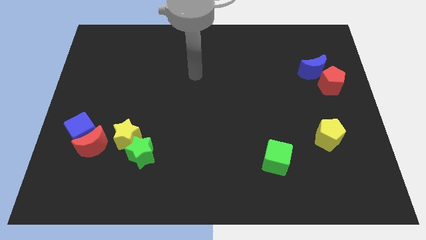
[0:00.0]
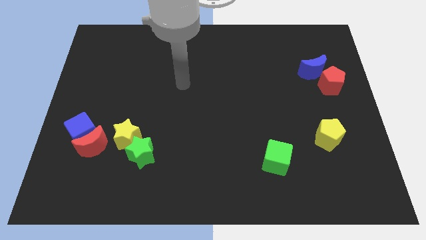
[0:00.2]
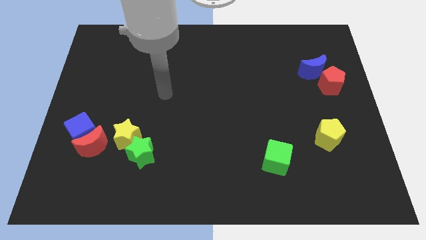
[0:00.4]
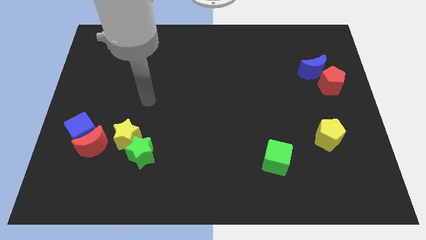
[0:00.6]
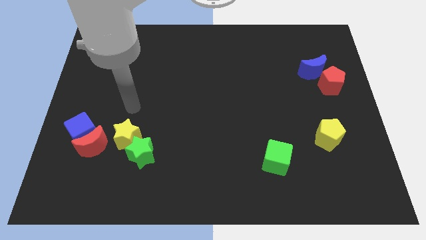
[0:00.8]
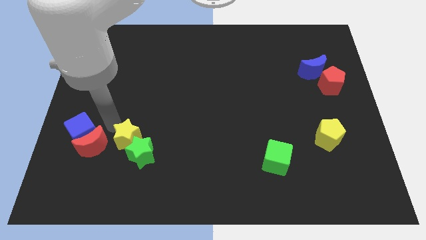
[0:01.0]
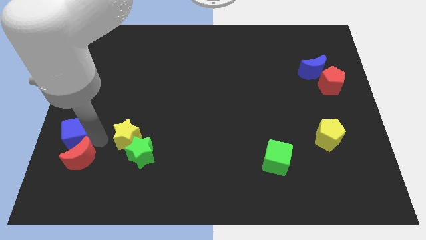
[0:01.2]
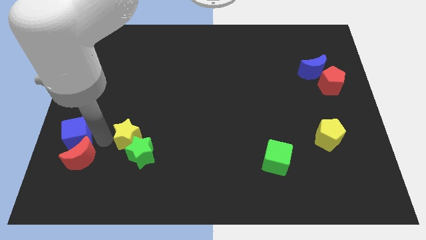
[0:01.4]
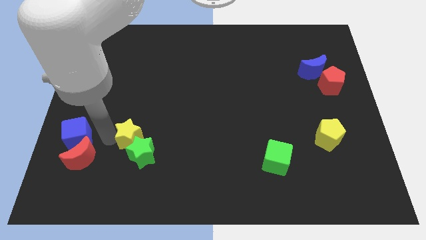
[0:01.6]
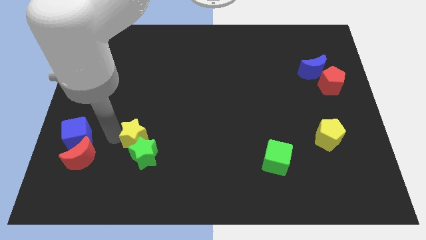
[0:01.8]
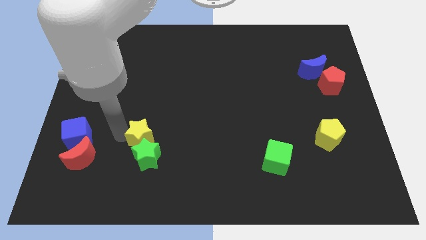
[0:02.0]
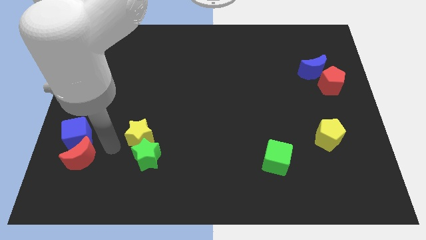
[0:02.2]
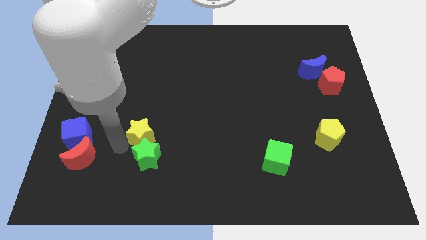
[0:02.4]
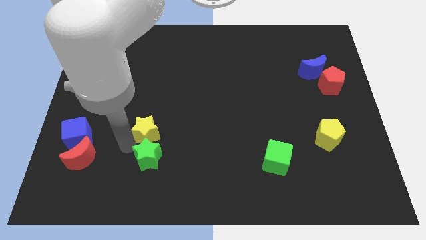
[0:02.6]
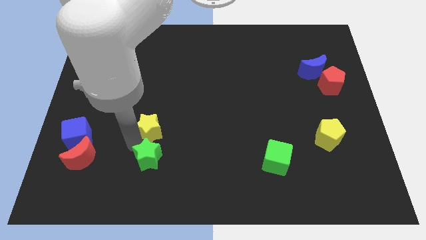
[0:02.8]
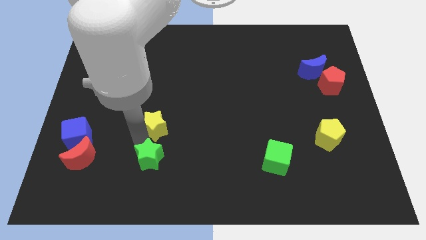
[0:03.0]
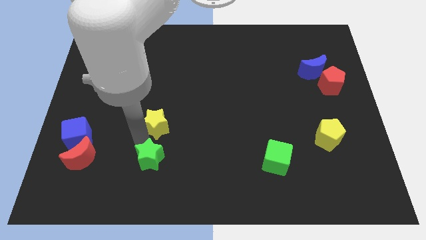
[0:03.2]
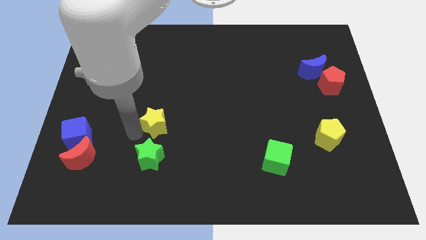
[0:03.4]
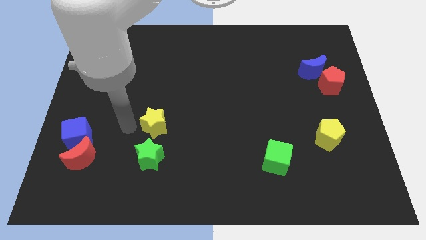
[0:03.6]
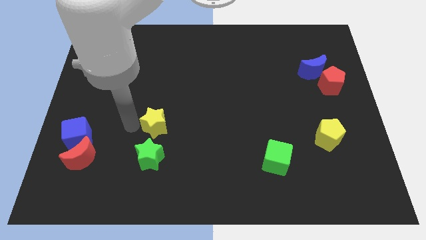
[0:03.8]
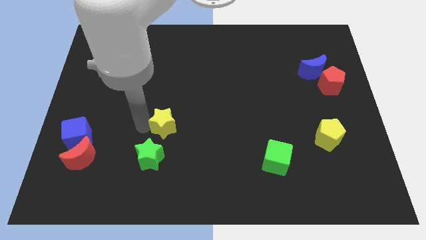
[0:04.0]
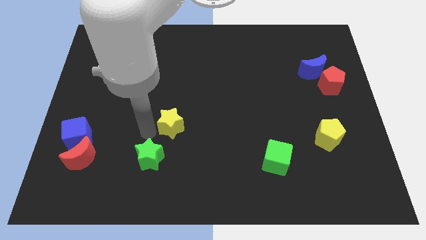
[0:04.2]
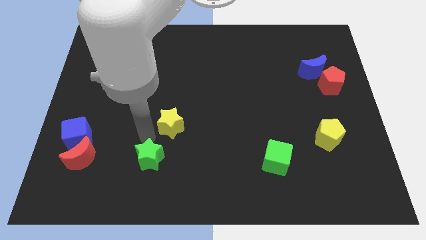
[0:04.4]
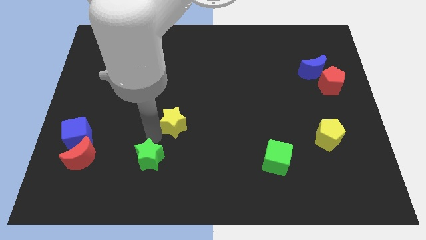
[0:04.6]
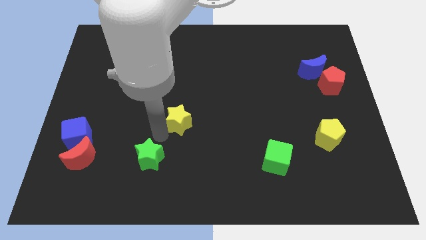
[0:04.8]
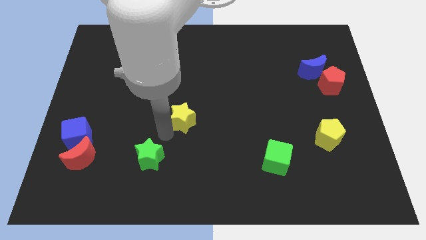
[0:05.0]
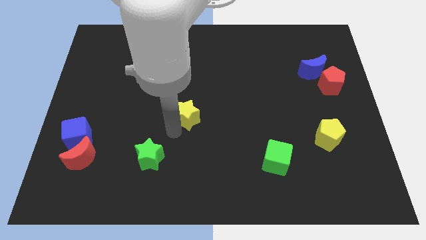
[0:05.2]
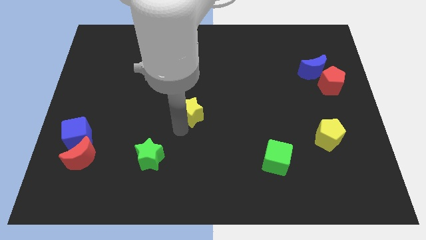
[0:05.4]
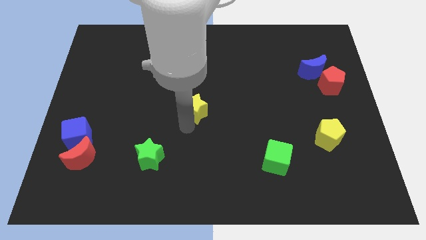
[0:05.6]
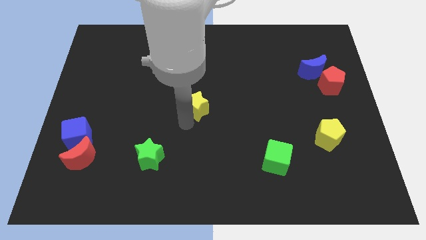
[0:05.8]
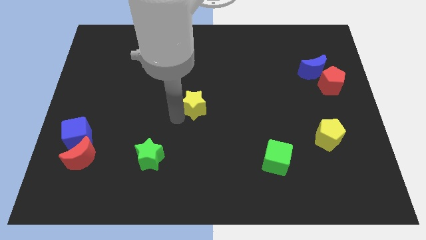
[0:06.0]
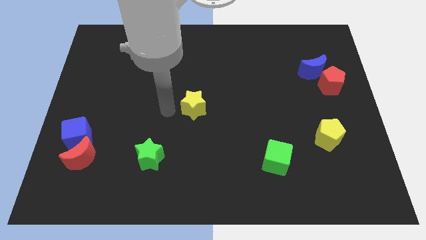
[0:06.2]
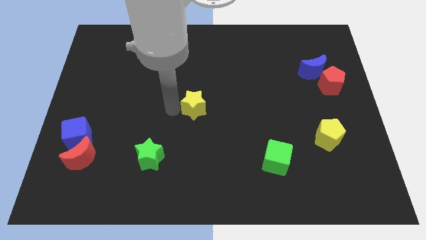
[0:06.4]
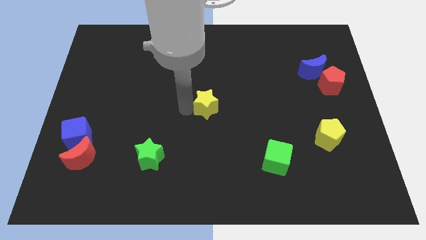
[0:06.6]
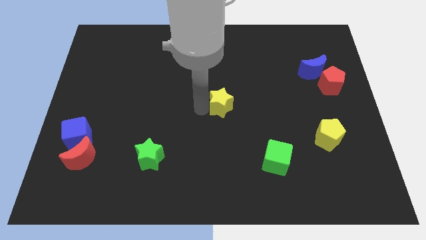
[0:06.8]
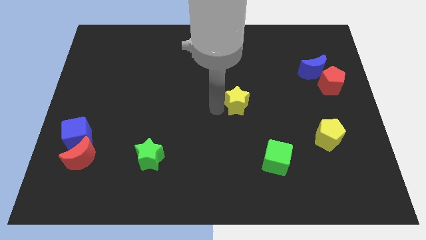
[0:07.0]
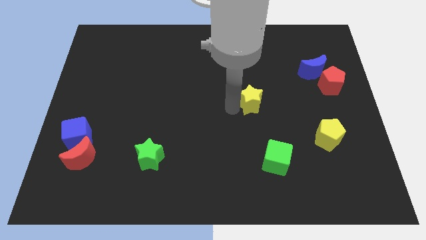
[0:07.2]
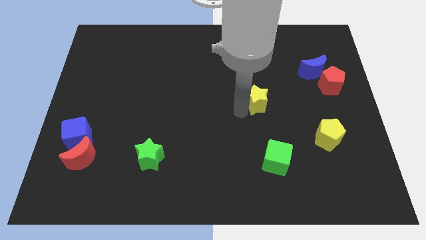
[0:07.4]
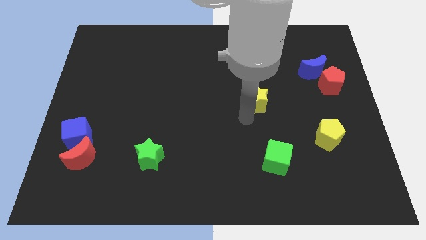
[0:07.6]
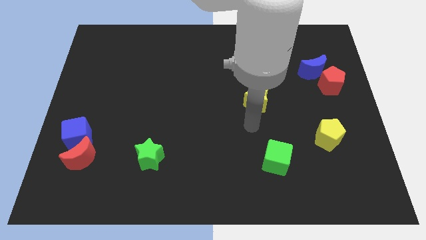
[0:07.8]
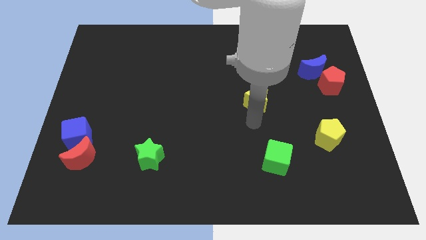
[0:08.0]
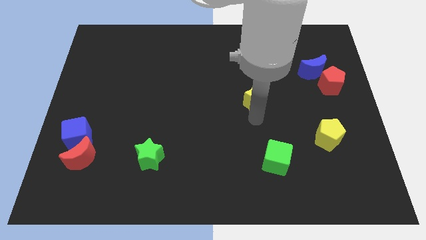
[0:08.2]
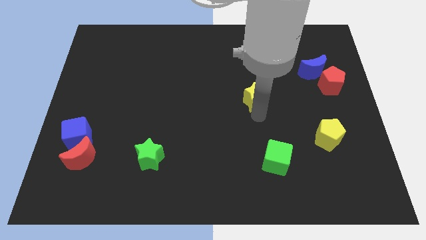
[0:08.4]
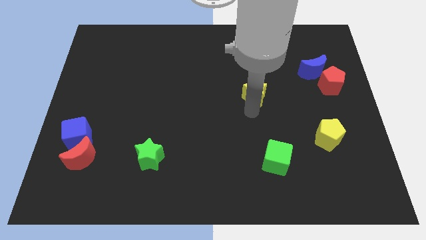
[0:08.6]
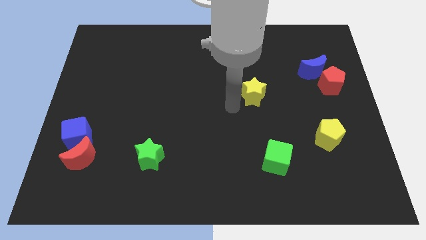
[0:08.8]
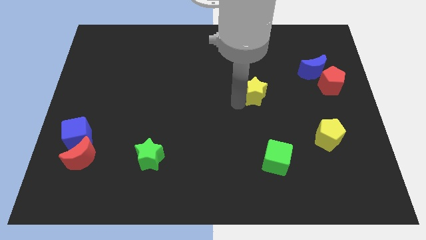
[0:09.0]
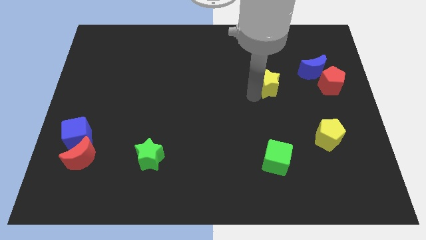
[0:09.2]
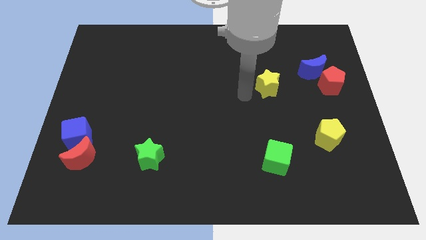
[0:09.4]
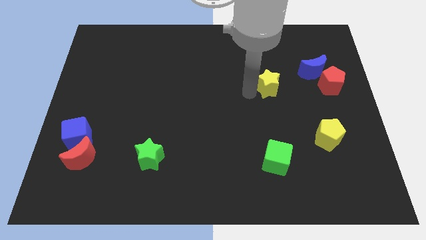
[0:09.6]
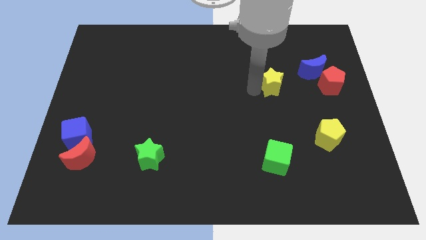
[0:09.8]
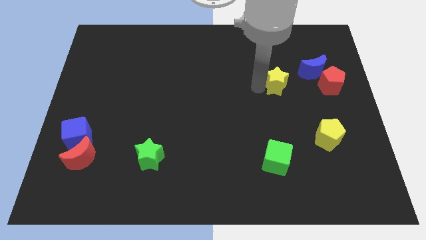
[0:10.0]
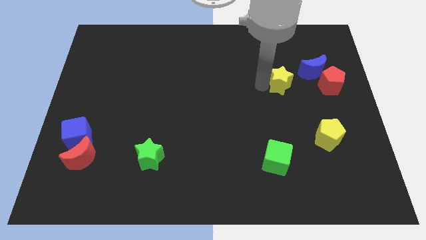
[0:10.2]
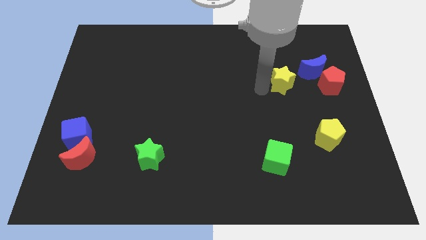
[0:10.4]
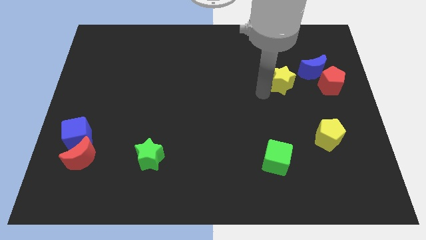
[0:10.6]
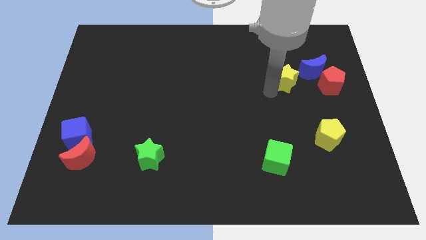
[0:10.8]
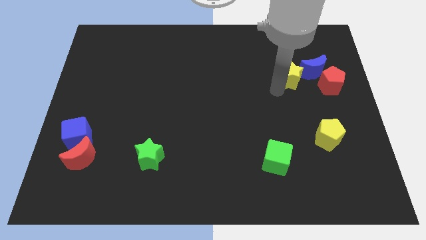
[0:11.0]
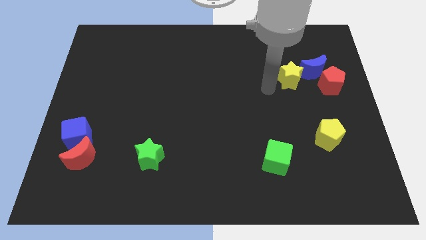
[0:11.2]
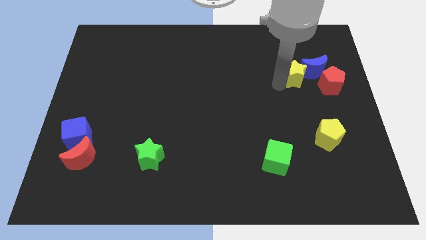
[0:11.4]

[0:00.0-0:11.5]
move the yellow star towards the blue moon

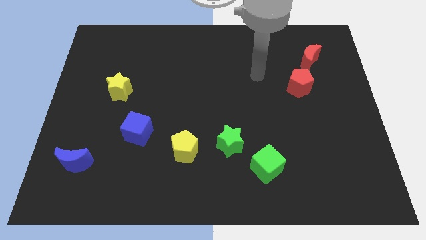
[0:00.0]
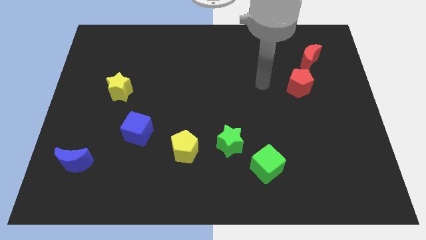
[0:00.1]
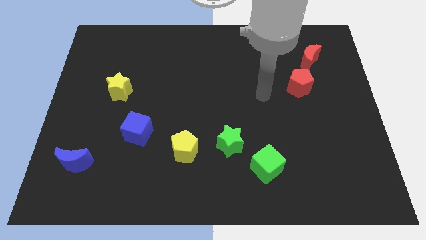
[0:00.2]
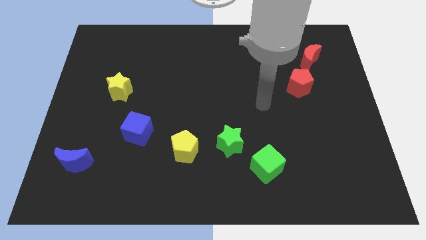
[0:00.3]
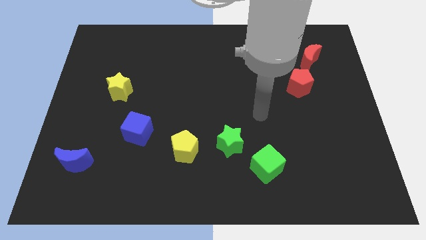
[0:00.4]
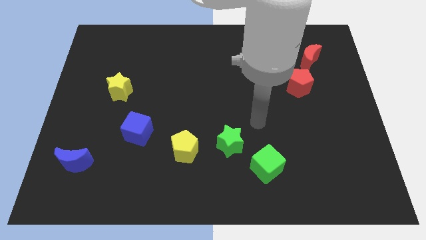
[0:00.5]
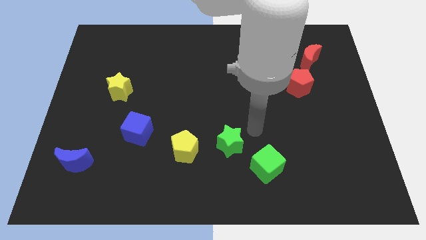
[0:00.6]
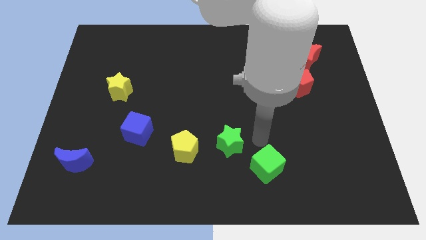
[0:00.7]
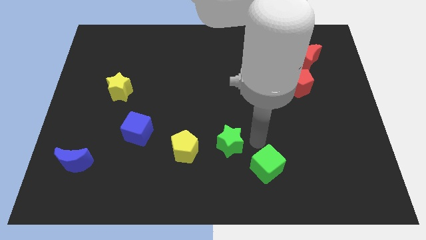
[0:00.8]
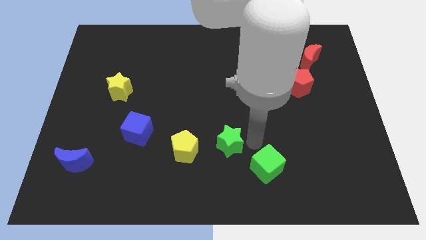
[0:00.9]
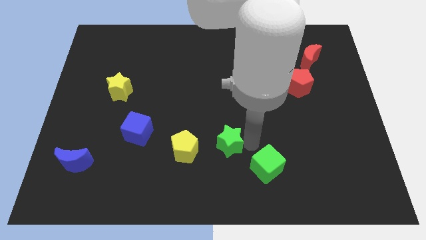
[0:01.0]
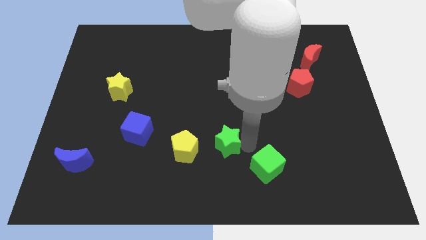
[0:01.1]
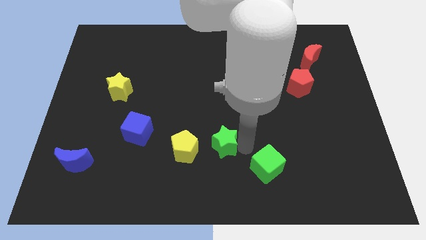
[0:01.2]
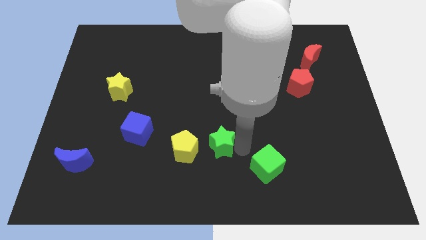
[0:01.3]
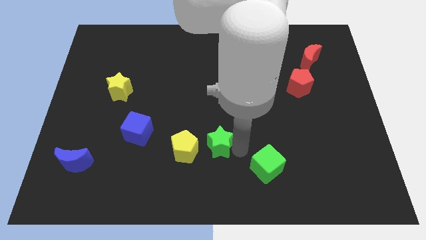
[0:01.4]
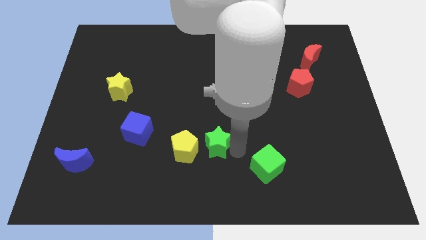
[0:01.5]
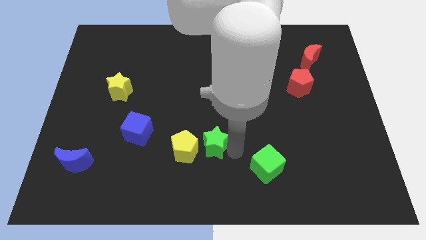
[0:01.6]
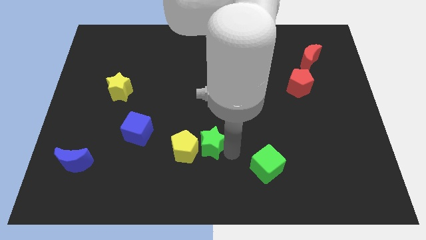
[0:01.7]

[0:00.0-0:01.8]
put the green star towards the yellow pentagon
